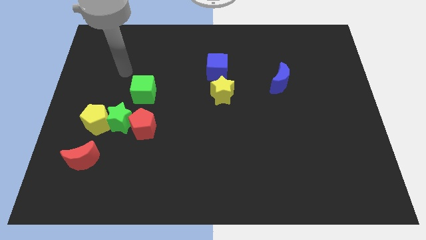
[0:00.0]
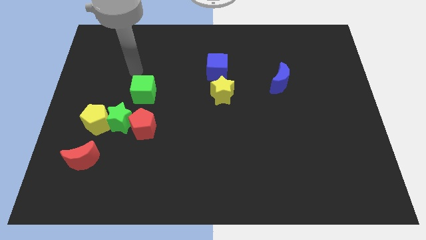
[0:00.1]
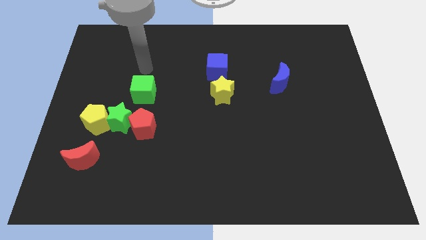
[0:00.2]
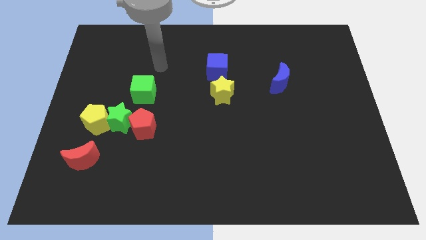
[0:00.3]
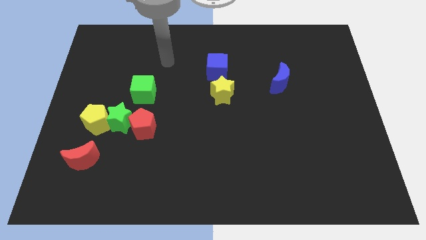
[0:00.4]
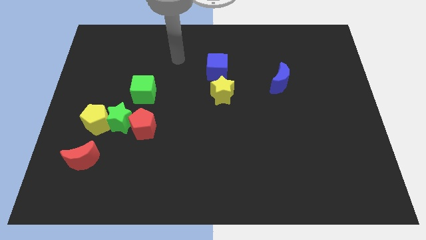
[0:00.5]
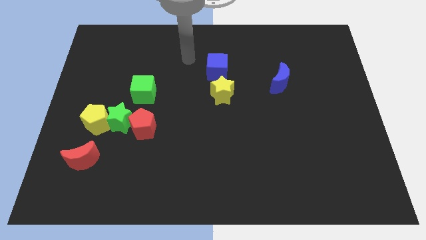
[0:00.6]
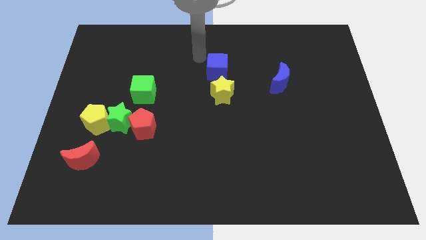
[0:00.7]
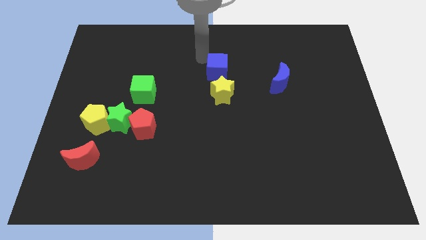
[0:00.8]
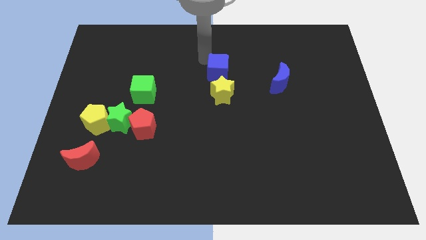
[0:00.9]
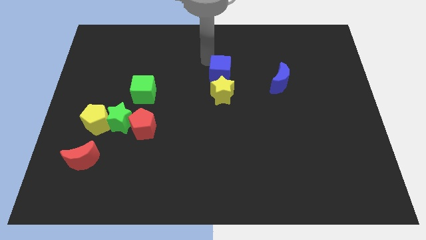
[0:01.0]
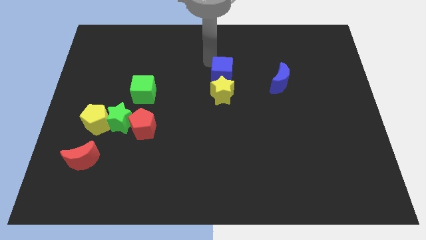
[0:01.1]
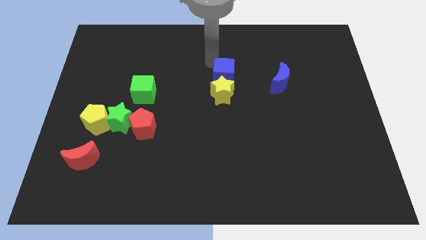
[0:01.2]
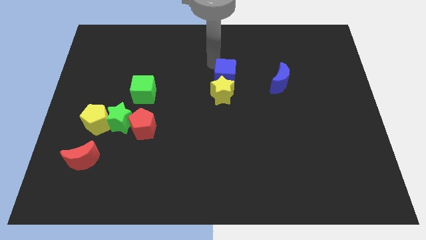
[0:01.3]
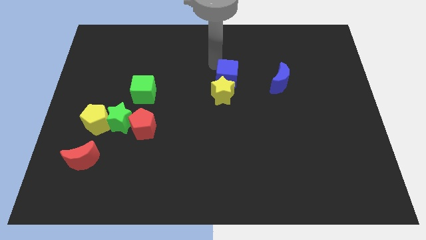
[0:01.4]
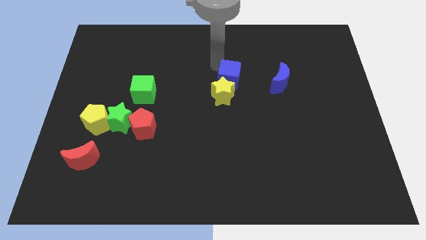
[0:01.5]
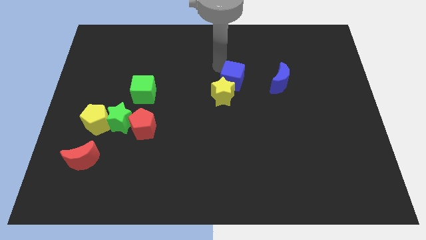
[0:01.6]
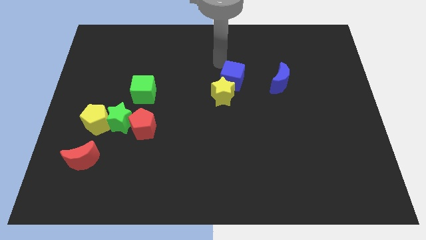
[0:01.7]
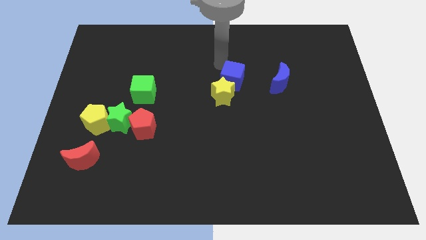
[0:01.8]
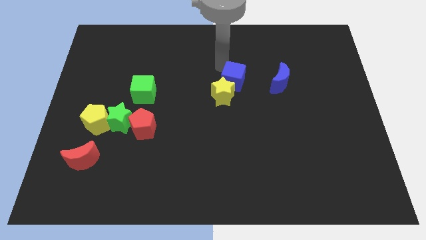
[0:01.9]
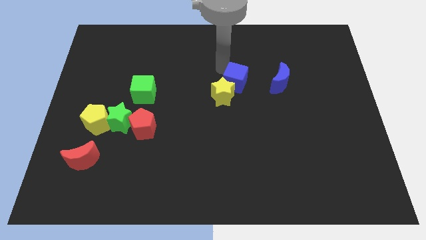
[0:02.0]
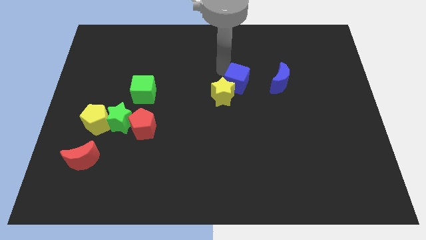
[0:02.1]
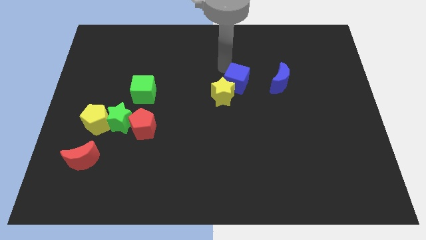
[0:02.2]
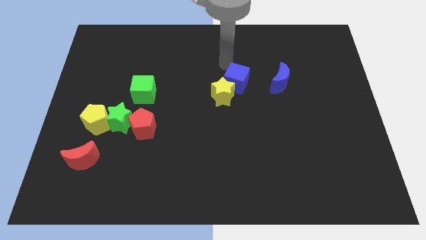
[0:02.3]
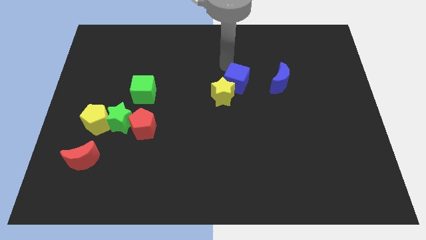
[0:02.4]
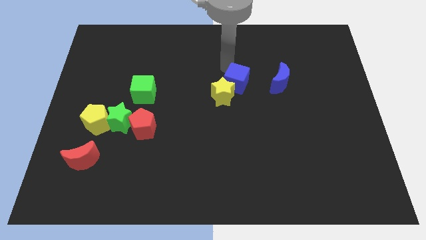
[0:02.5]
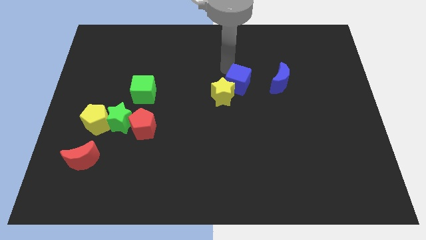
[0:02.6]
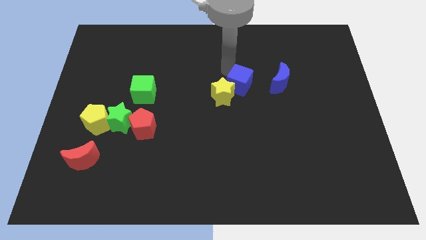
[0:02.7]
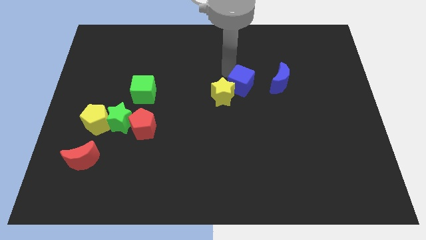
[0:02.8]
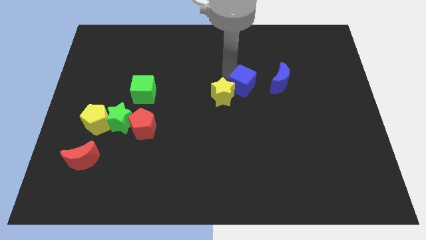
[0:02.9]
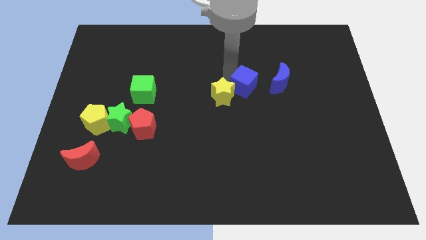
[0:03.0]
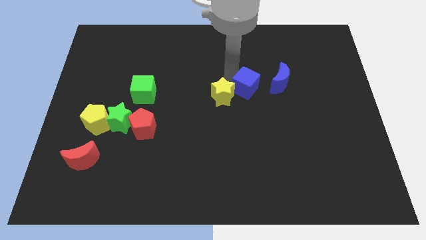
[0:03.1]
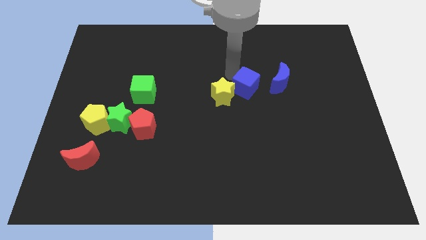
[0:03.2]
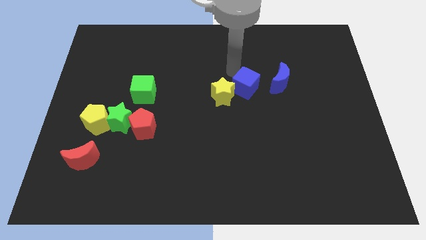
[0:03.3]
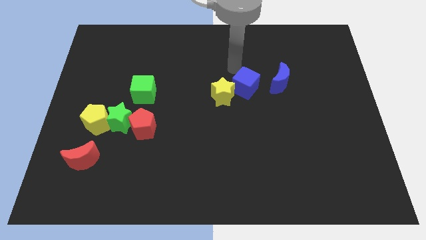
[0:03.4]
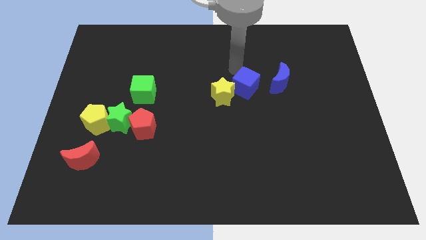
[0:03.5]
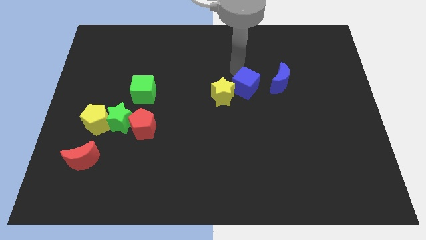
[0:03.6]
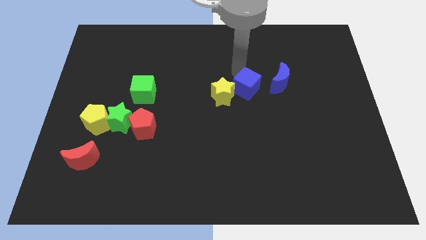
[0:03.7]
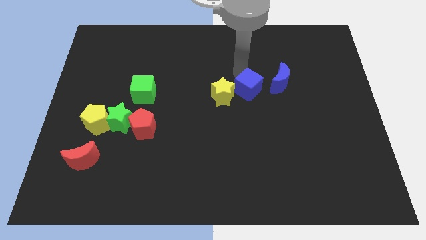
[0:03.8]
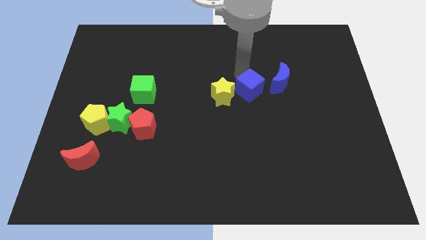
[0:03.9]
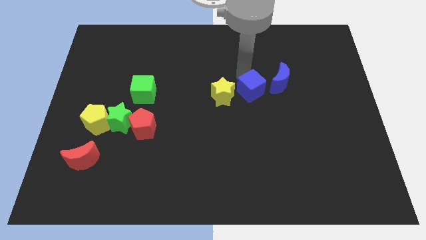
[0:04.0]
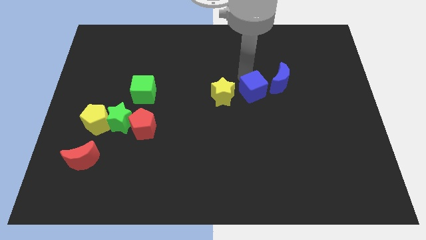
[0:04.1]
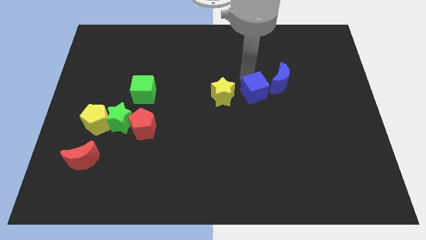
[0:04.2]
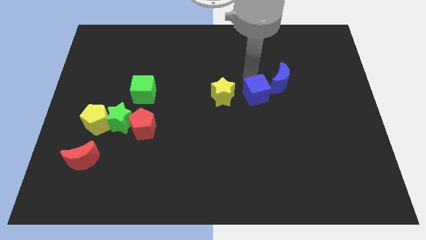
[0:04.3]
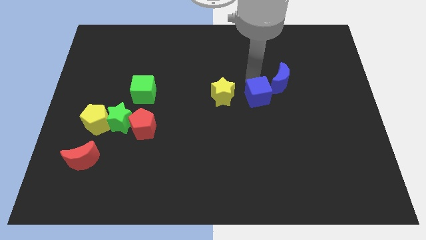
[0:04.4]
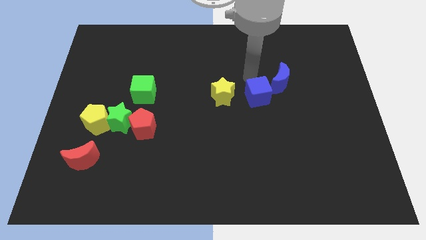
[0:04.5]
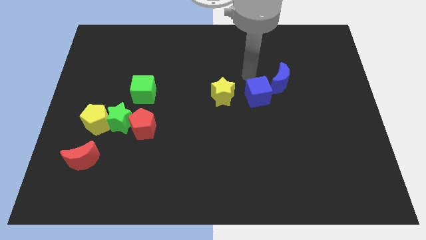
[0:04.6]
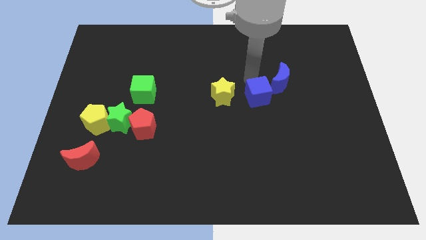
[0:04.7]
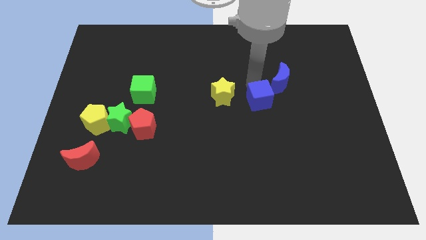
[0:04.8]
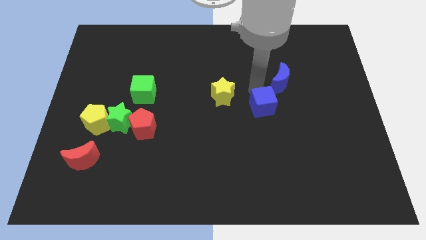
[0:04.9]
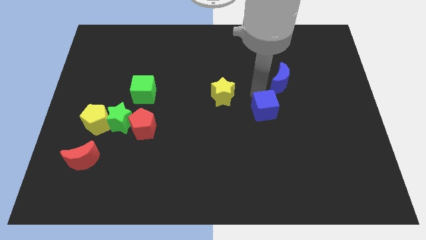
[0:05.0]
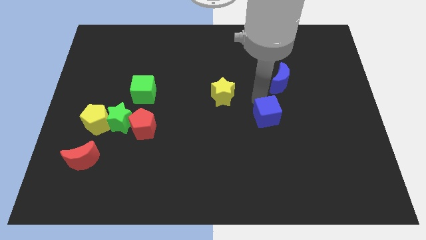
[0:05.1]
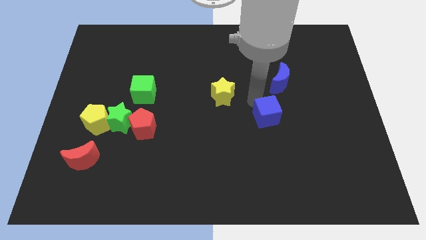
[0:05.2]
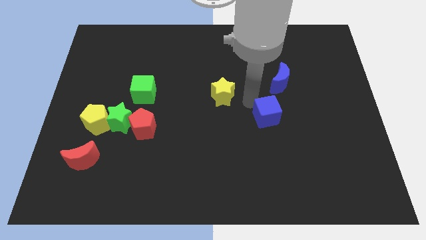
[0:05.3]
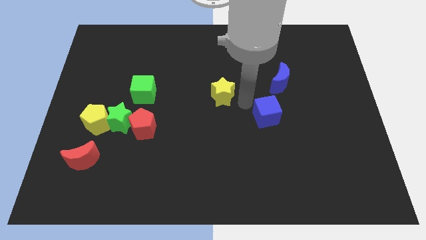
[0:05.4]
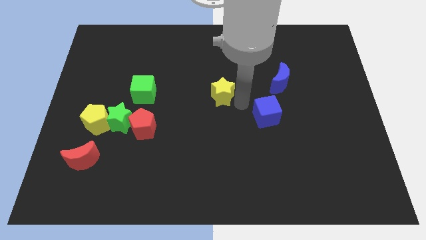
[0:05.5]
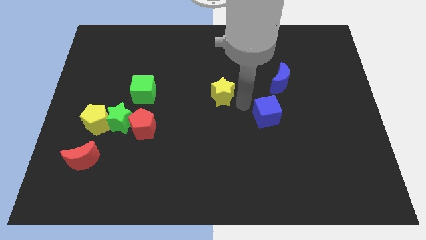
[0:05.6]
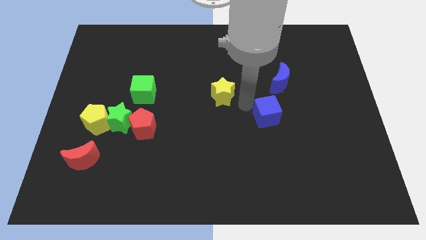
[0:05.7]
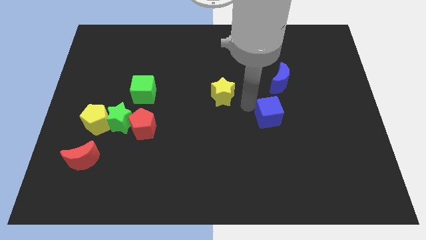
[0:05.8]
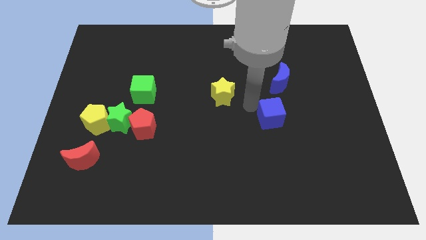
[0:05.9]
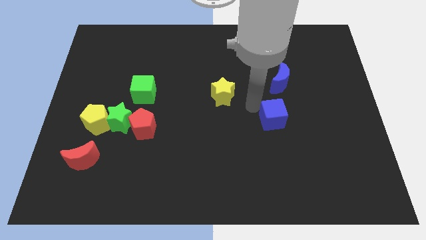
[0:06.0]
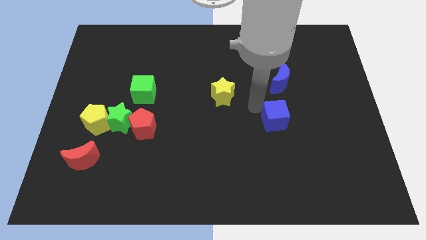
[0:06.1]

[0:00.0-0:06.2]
push the blue cube down and then to the right

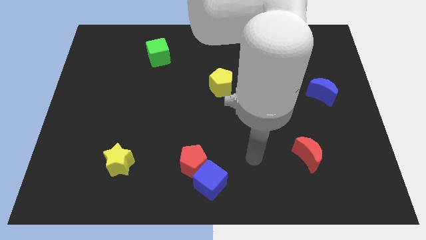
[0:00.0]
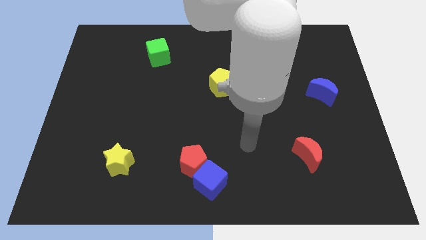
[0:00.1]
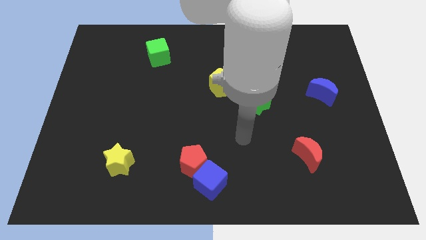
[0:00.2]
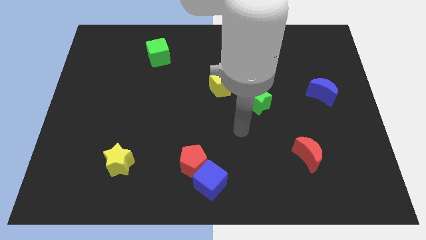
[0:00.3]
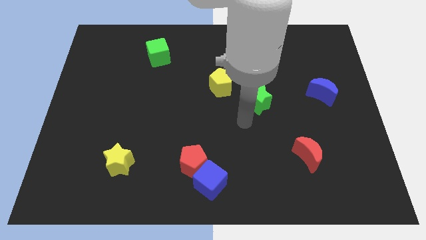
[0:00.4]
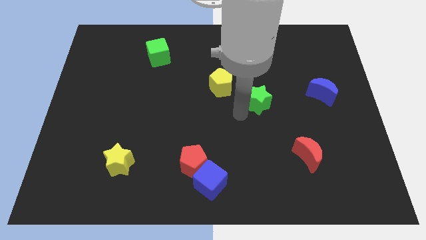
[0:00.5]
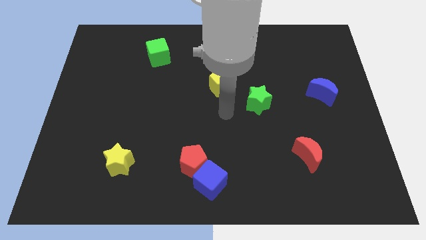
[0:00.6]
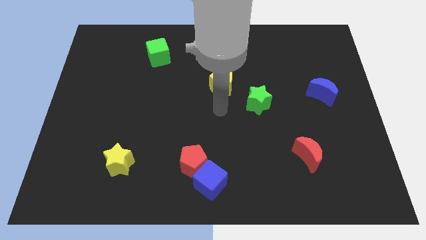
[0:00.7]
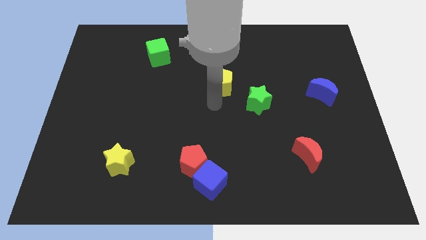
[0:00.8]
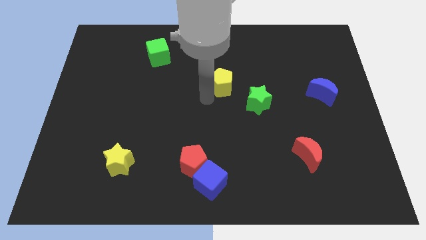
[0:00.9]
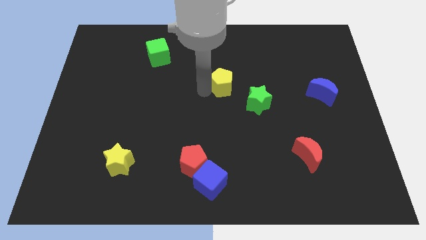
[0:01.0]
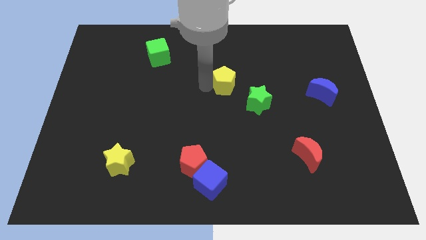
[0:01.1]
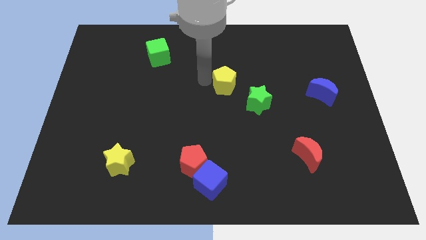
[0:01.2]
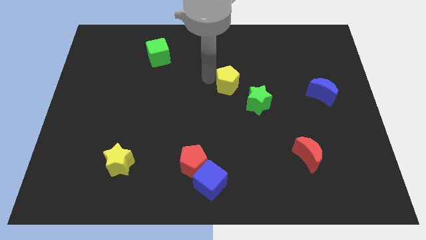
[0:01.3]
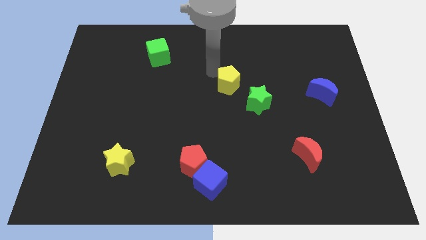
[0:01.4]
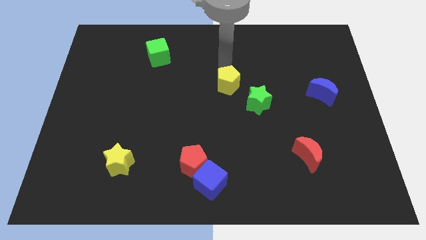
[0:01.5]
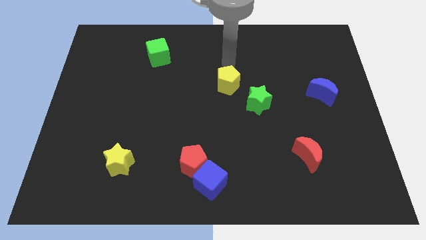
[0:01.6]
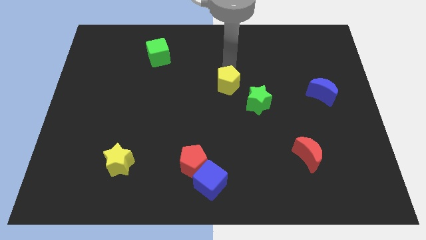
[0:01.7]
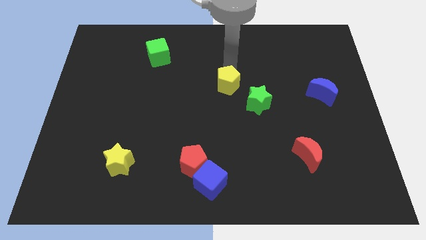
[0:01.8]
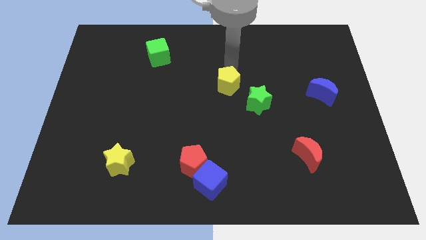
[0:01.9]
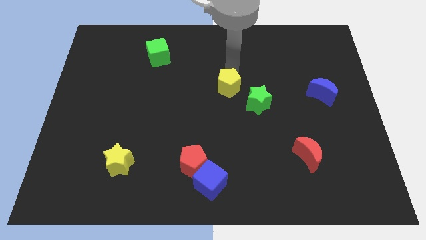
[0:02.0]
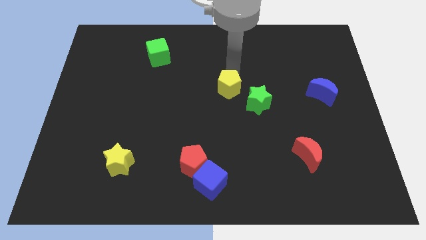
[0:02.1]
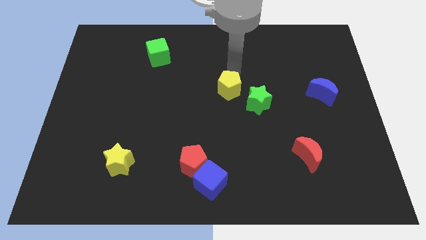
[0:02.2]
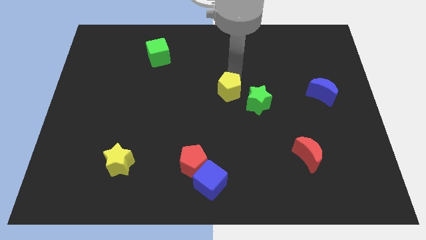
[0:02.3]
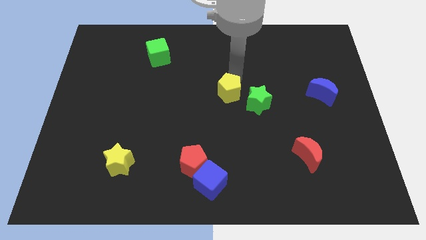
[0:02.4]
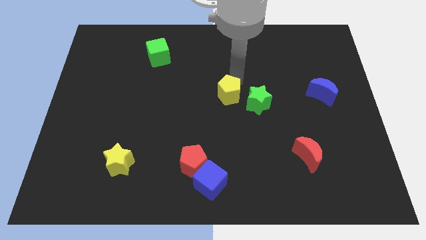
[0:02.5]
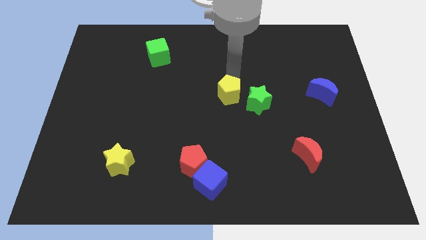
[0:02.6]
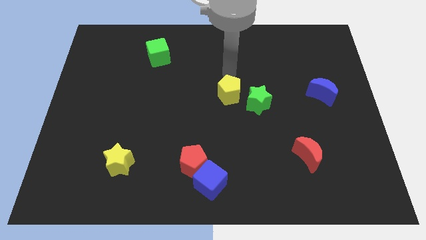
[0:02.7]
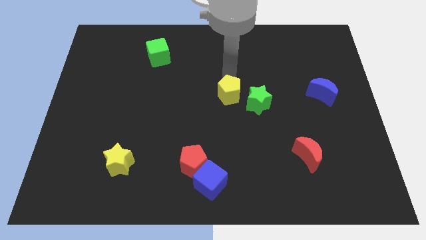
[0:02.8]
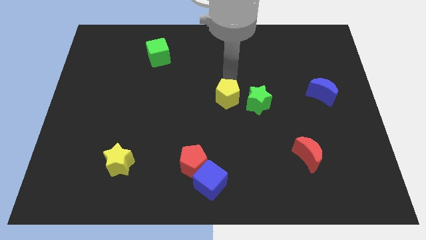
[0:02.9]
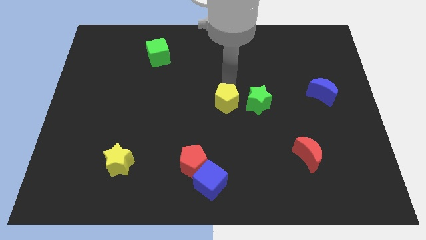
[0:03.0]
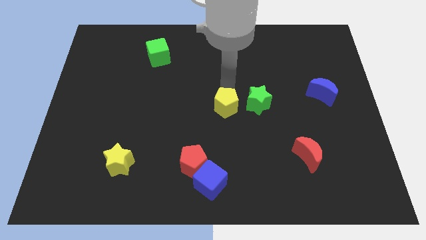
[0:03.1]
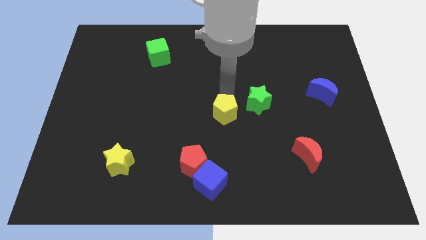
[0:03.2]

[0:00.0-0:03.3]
move the yellow pentagon slightly down
